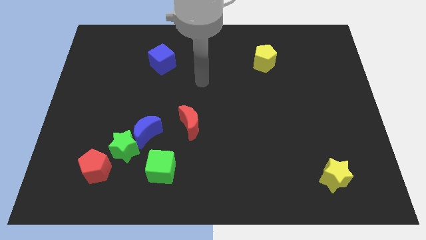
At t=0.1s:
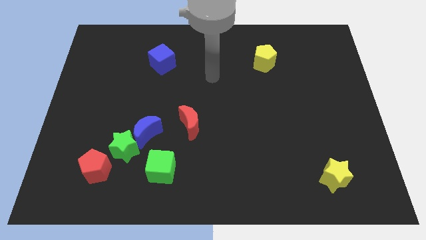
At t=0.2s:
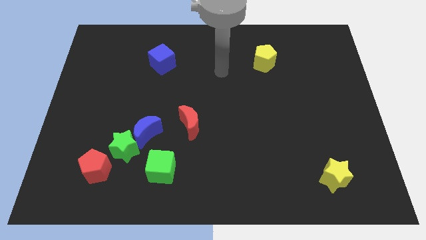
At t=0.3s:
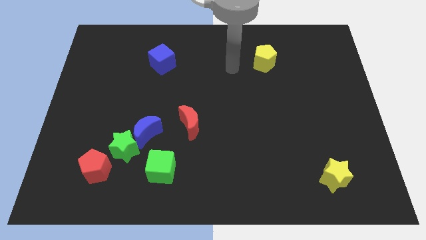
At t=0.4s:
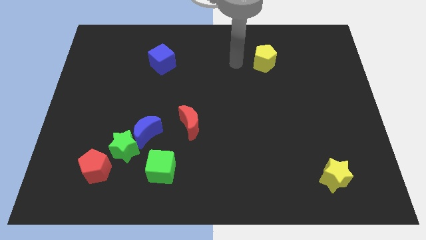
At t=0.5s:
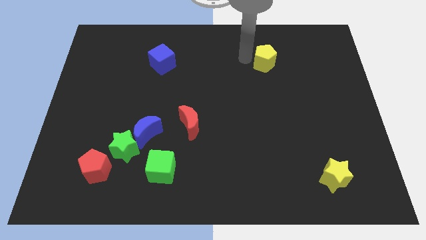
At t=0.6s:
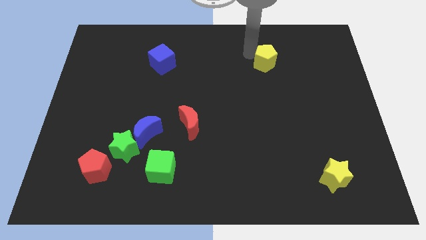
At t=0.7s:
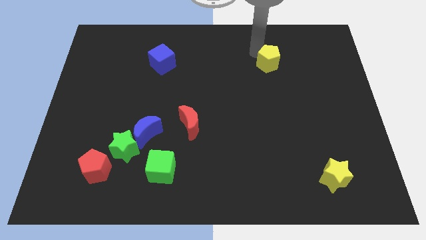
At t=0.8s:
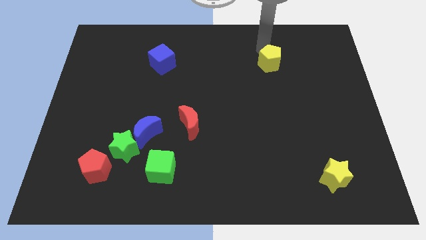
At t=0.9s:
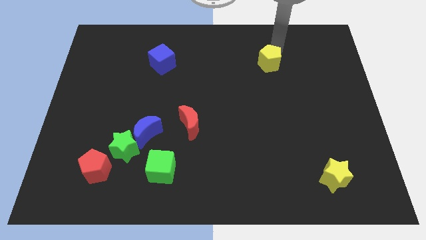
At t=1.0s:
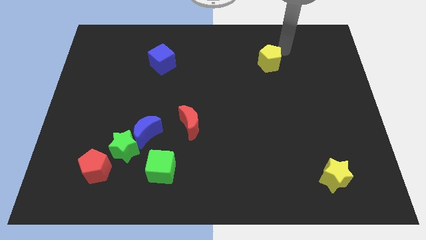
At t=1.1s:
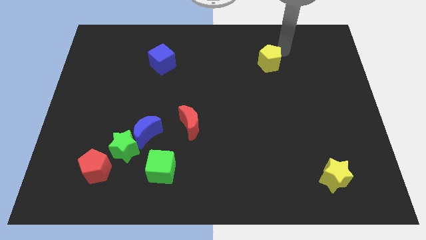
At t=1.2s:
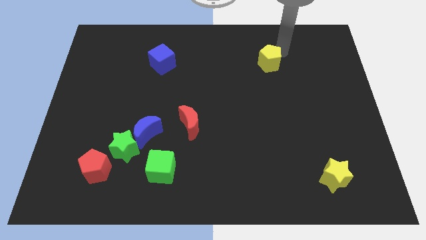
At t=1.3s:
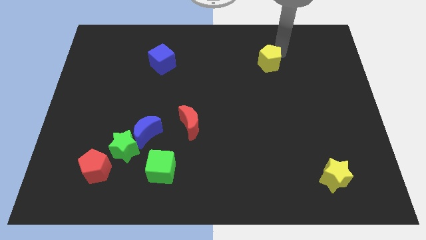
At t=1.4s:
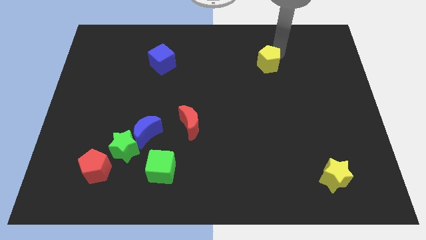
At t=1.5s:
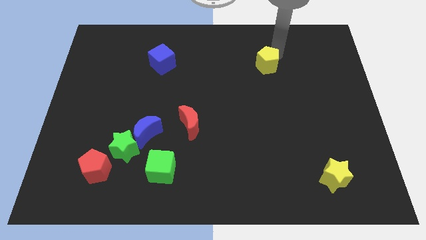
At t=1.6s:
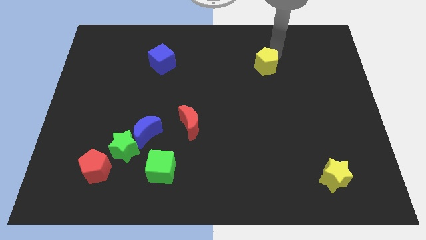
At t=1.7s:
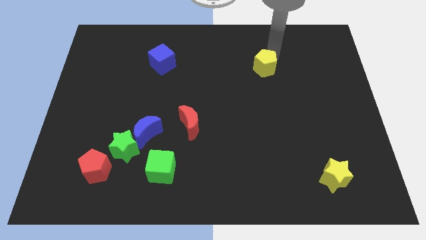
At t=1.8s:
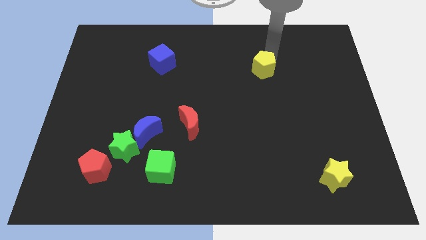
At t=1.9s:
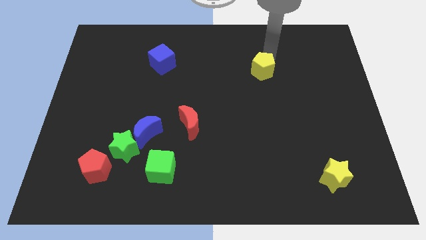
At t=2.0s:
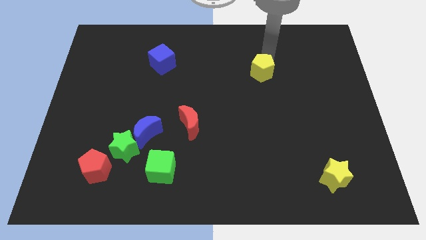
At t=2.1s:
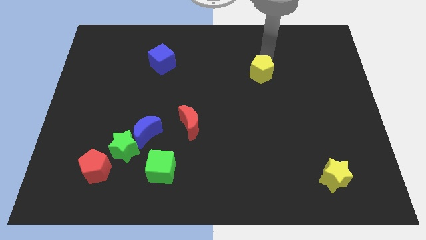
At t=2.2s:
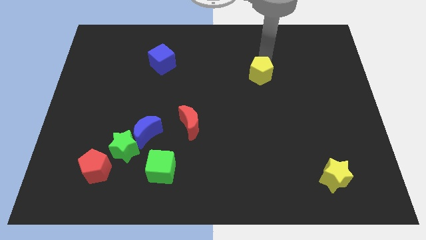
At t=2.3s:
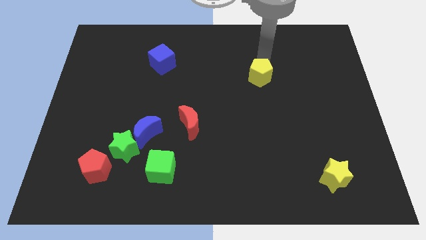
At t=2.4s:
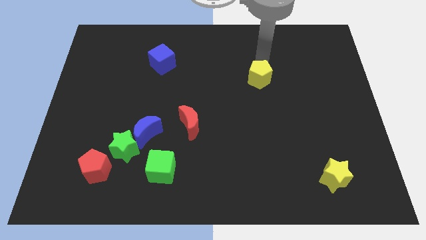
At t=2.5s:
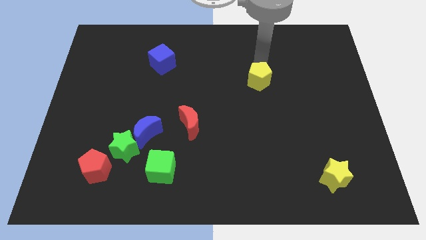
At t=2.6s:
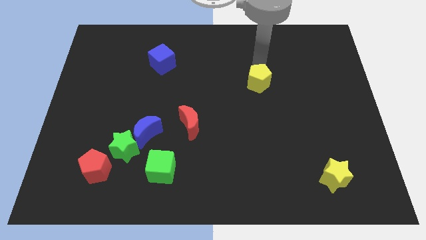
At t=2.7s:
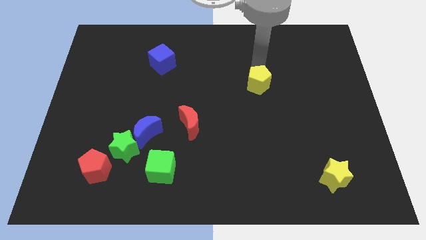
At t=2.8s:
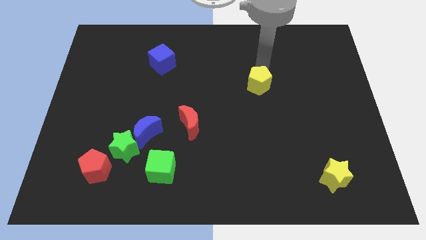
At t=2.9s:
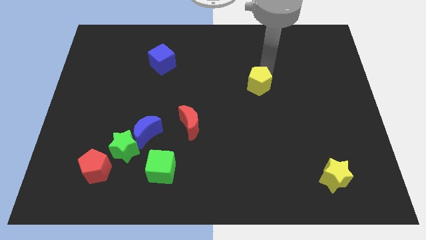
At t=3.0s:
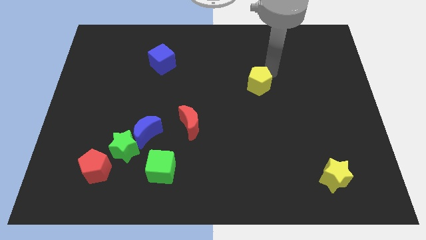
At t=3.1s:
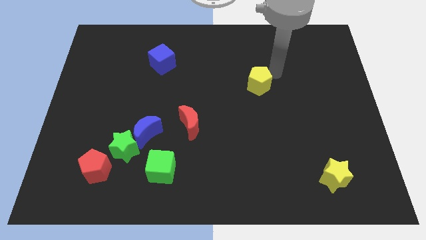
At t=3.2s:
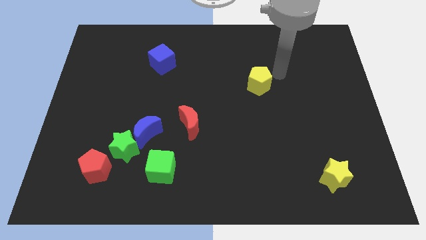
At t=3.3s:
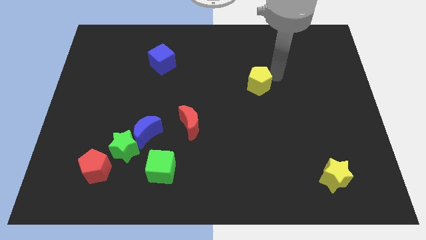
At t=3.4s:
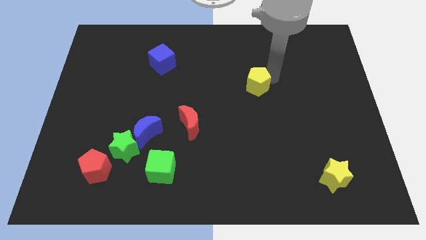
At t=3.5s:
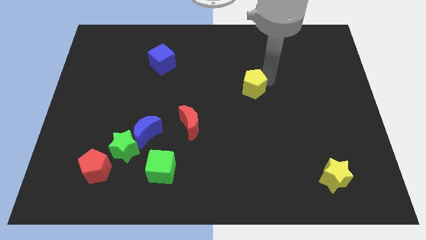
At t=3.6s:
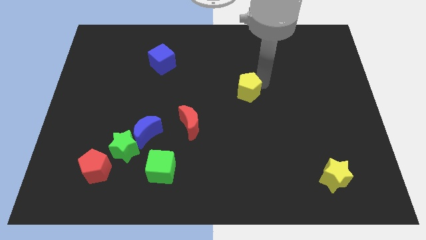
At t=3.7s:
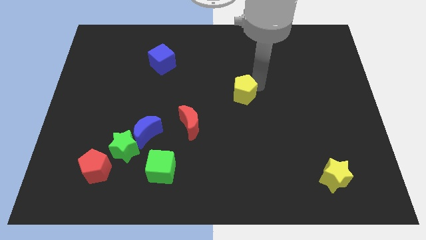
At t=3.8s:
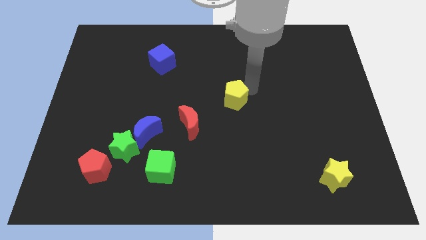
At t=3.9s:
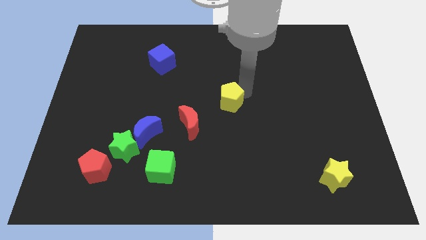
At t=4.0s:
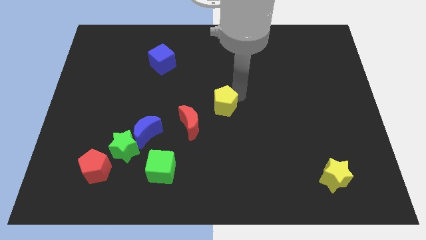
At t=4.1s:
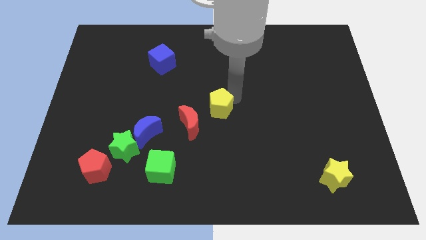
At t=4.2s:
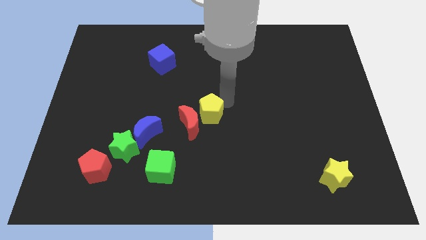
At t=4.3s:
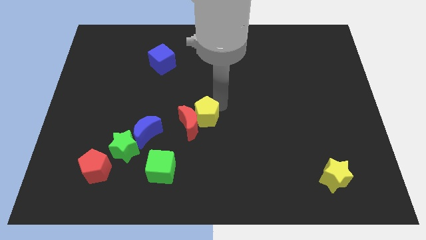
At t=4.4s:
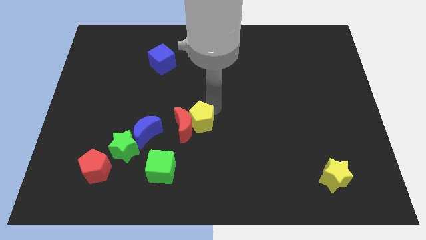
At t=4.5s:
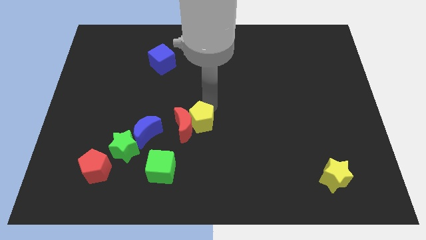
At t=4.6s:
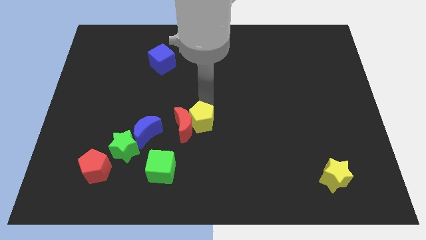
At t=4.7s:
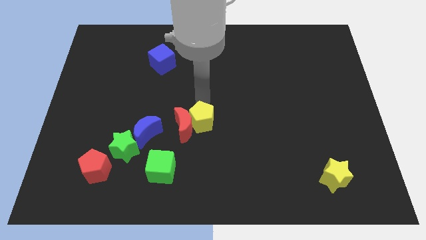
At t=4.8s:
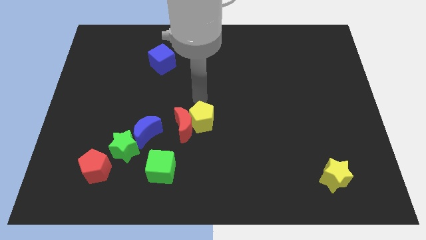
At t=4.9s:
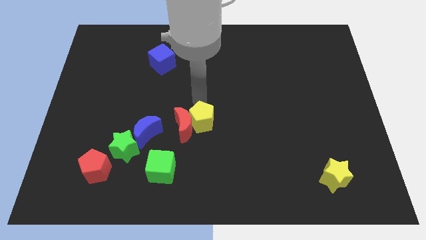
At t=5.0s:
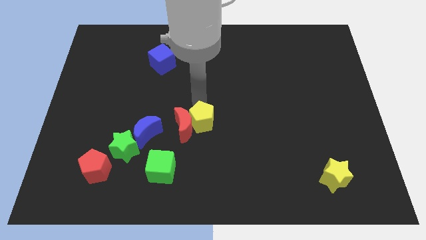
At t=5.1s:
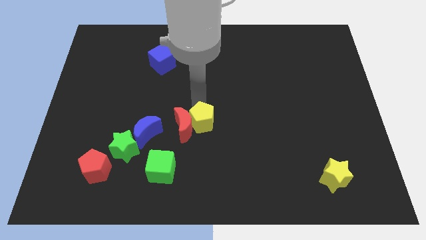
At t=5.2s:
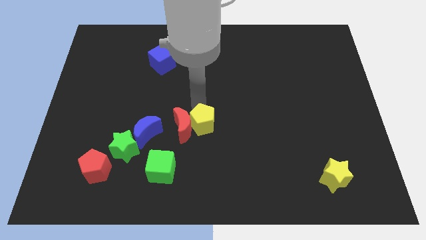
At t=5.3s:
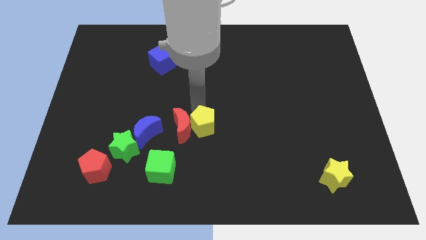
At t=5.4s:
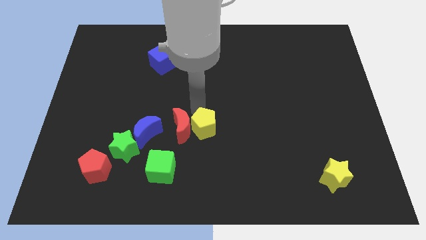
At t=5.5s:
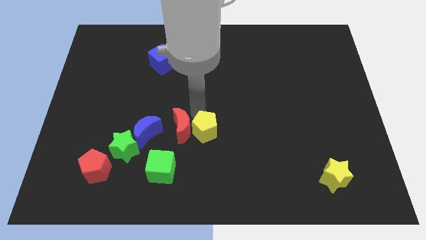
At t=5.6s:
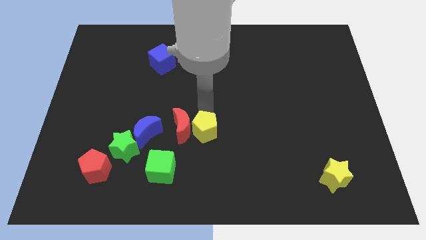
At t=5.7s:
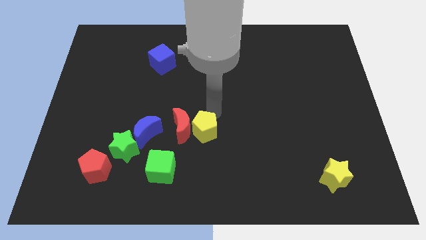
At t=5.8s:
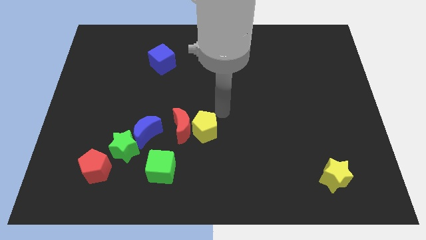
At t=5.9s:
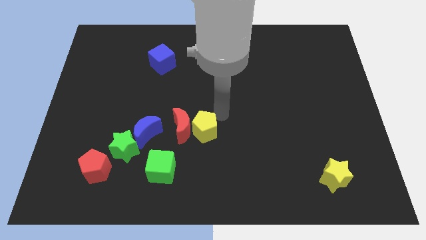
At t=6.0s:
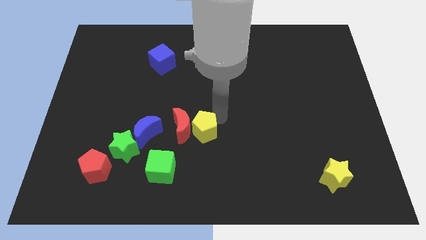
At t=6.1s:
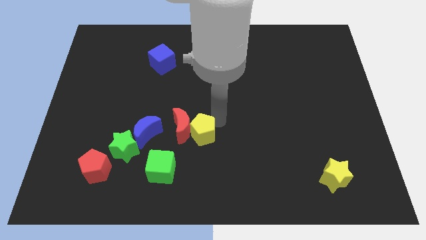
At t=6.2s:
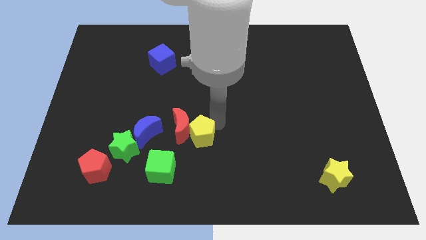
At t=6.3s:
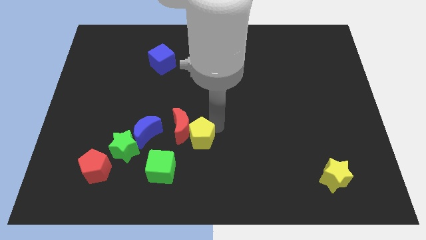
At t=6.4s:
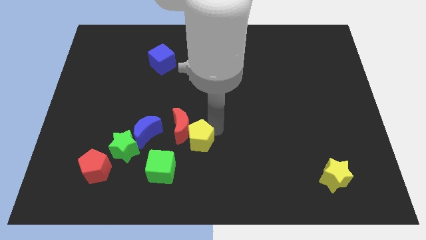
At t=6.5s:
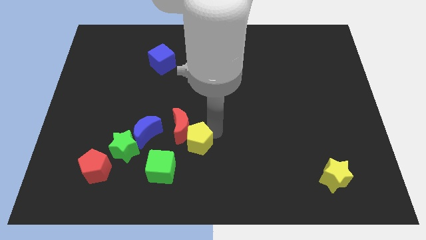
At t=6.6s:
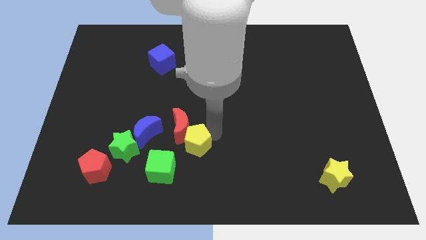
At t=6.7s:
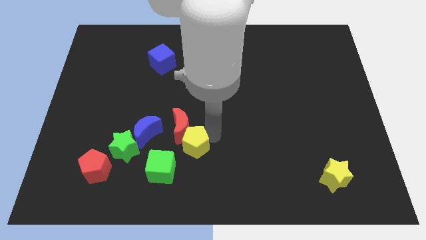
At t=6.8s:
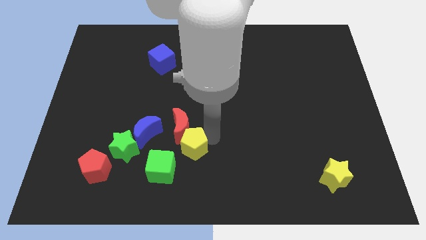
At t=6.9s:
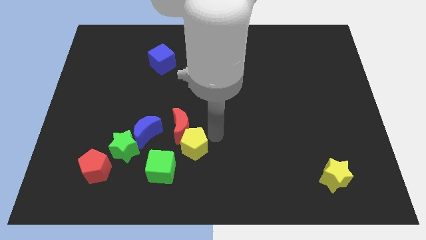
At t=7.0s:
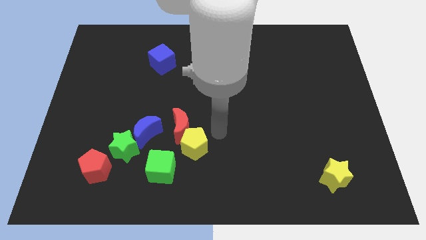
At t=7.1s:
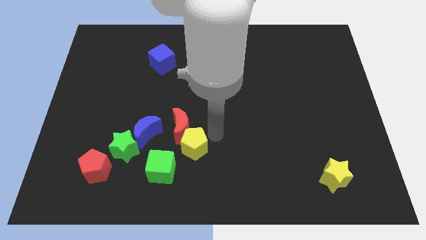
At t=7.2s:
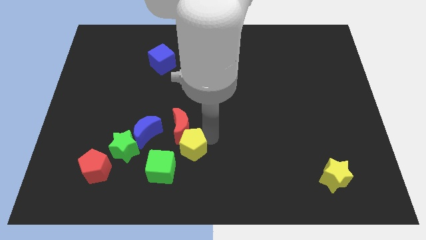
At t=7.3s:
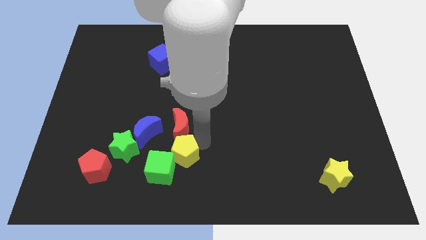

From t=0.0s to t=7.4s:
put the yellow pentagon towards the green cube
